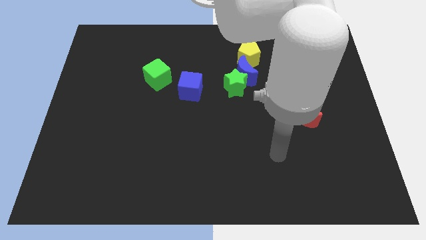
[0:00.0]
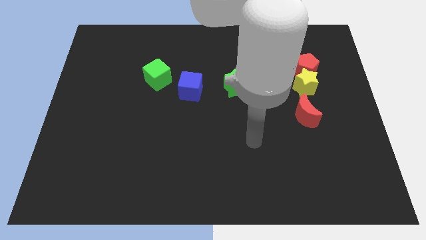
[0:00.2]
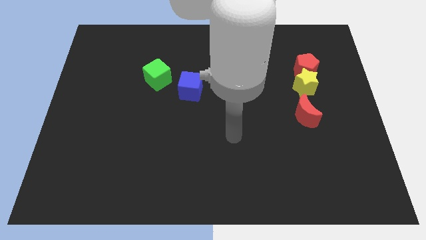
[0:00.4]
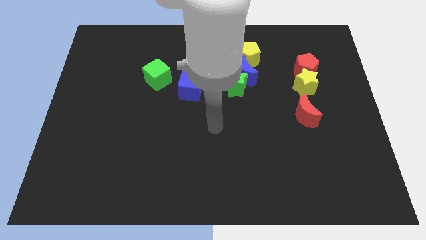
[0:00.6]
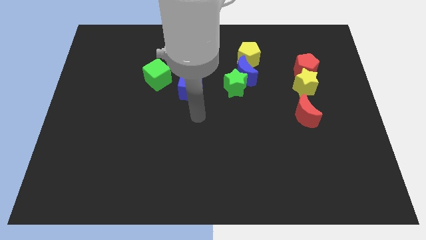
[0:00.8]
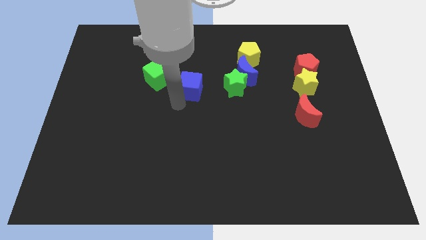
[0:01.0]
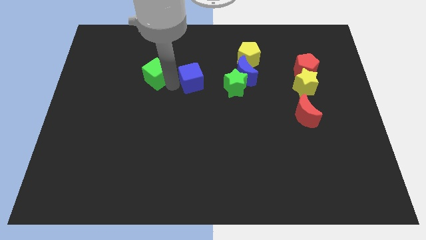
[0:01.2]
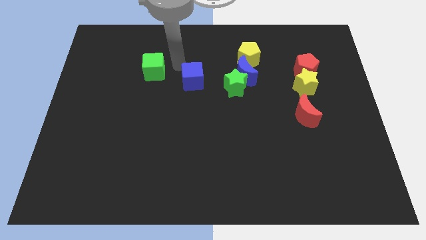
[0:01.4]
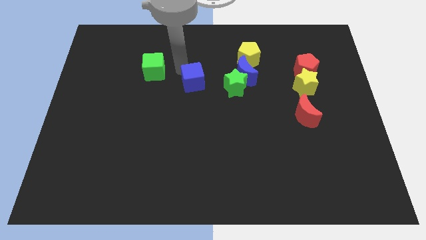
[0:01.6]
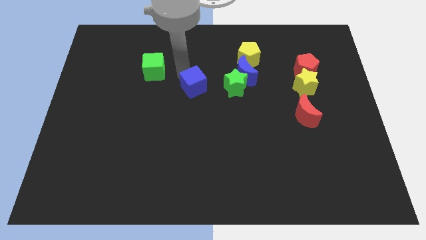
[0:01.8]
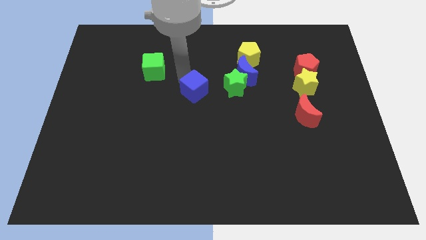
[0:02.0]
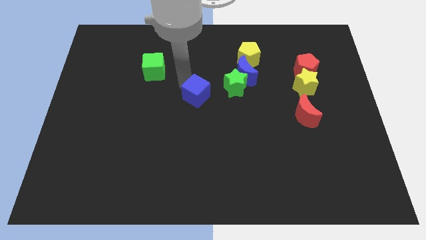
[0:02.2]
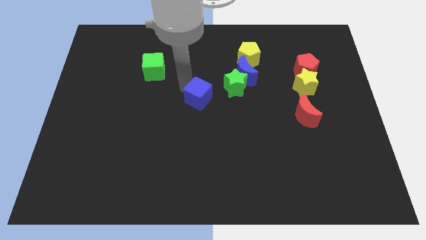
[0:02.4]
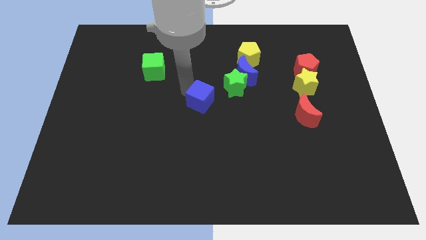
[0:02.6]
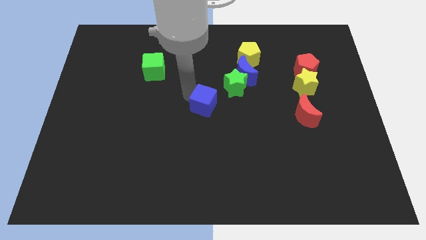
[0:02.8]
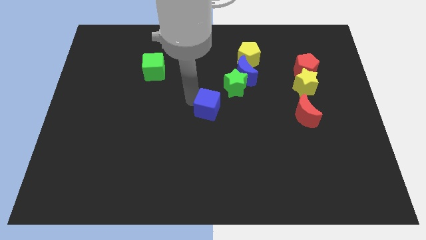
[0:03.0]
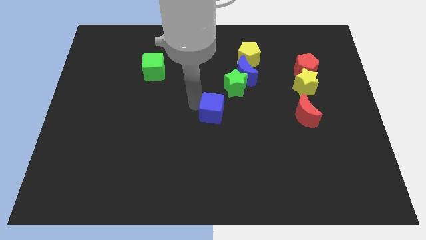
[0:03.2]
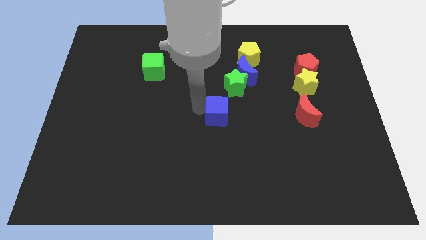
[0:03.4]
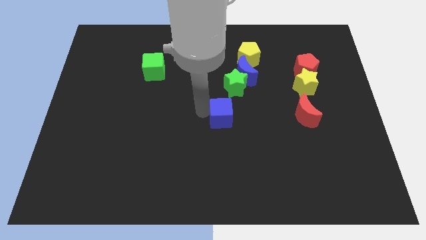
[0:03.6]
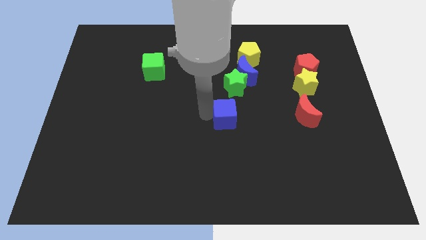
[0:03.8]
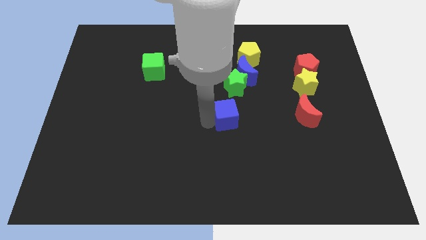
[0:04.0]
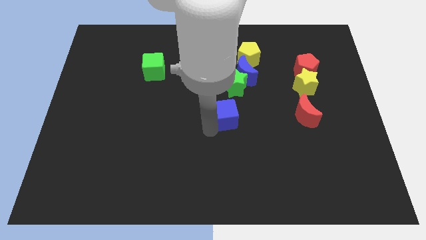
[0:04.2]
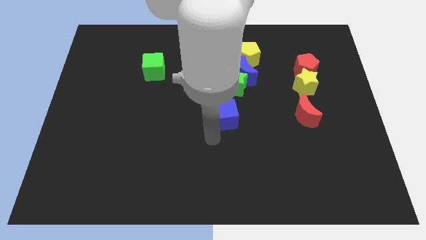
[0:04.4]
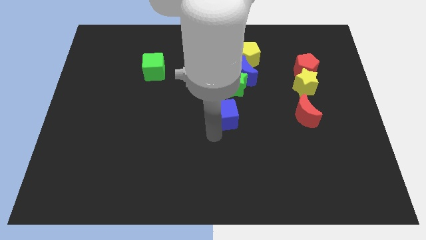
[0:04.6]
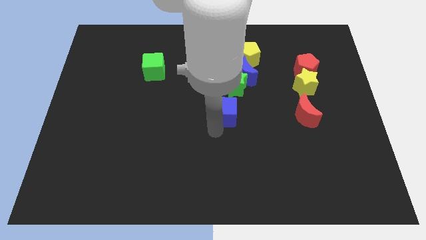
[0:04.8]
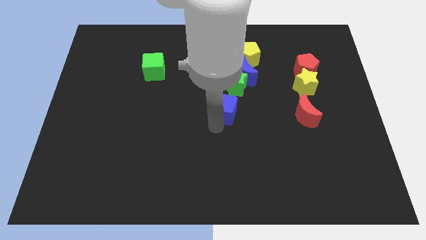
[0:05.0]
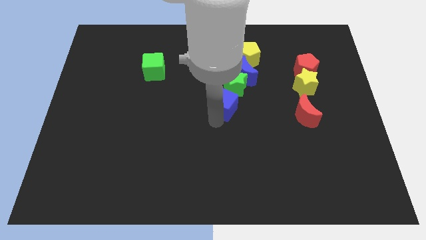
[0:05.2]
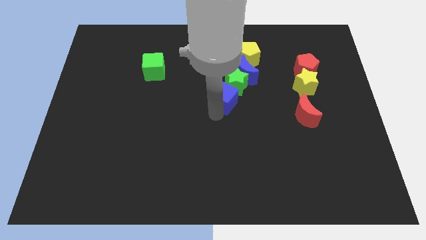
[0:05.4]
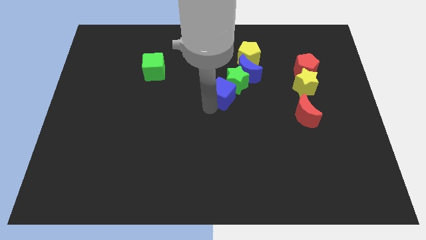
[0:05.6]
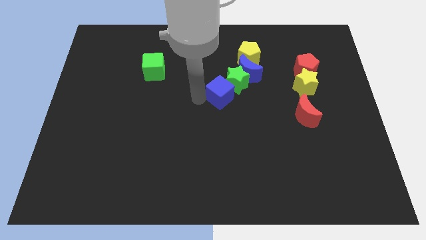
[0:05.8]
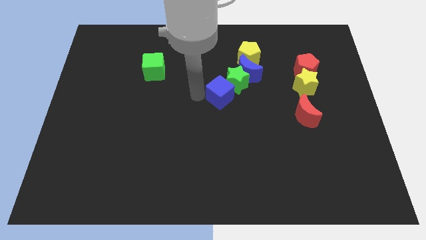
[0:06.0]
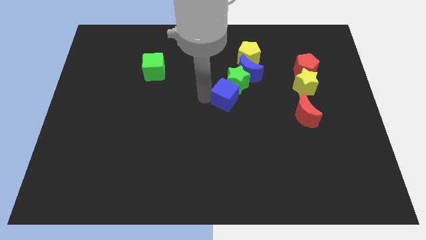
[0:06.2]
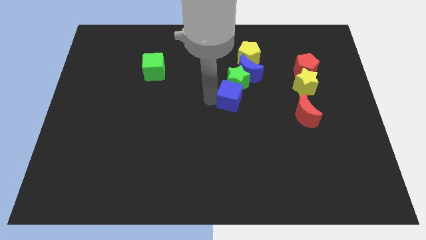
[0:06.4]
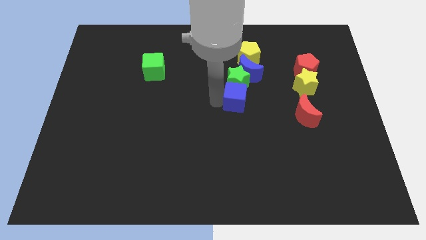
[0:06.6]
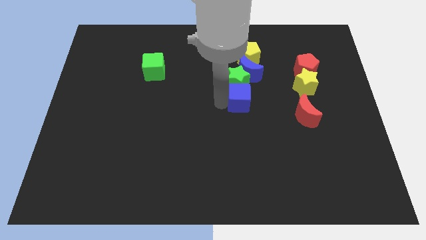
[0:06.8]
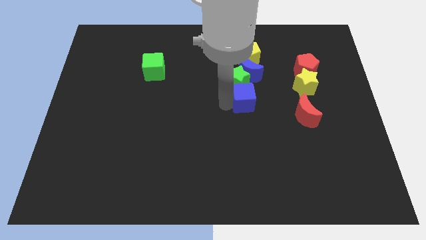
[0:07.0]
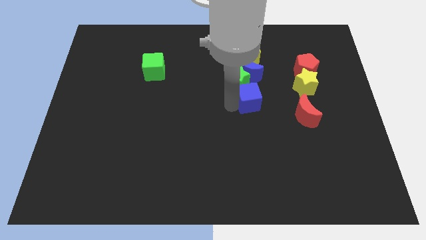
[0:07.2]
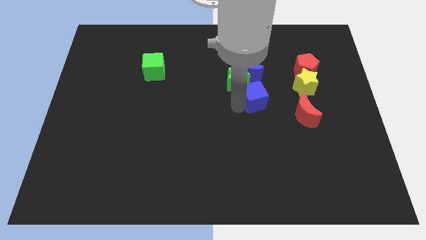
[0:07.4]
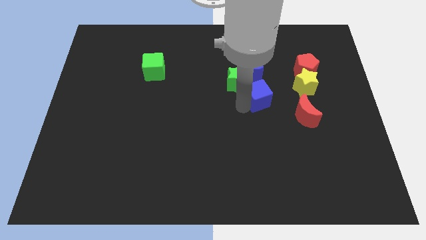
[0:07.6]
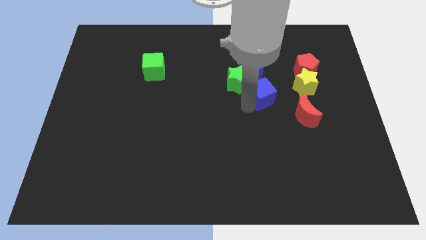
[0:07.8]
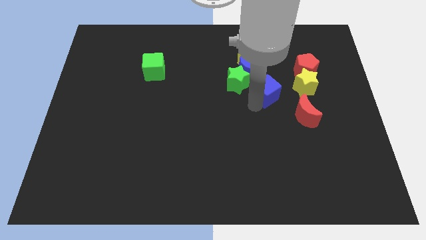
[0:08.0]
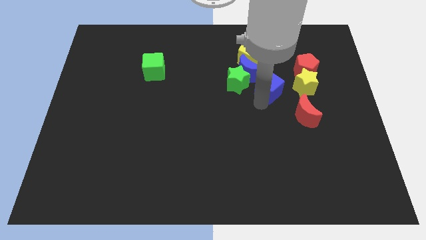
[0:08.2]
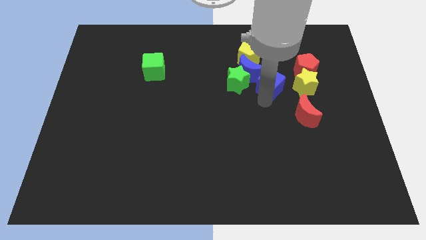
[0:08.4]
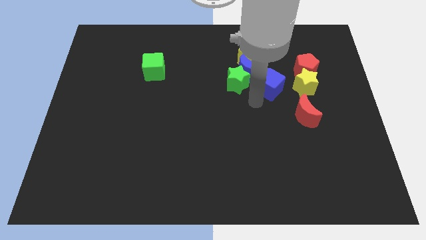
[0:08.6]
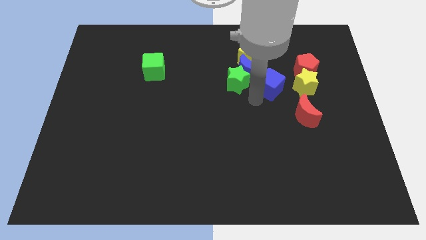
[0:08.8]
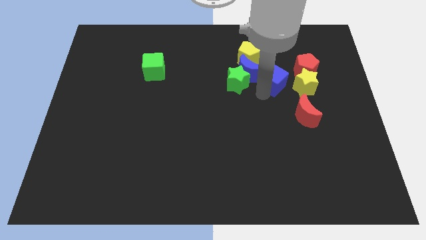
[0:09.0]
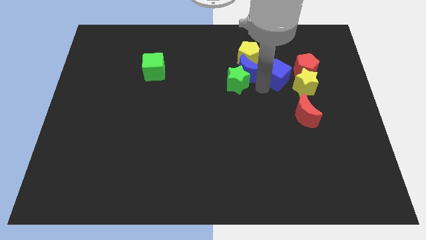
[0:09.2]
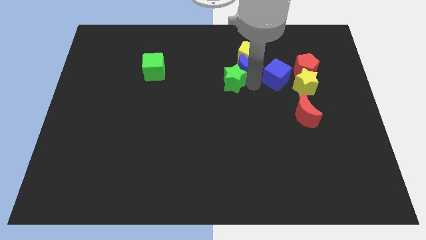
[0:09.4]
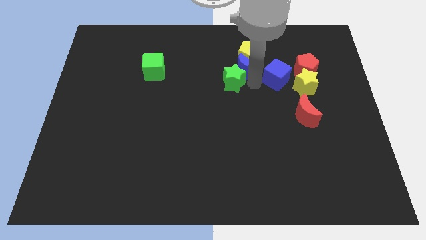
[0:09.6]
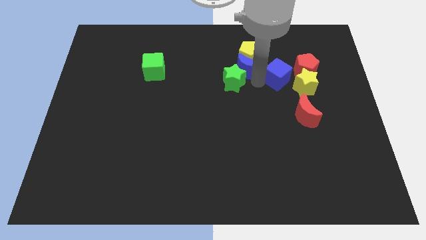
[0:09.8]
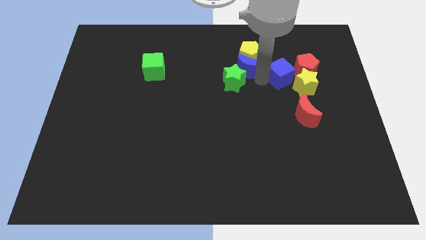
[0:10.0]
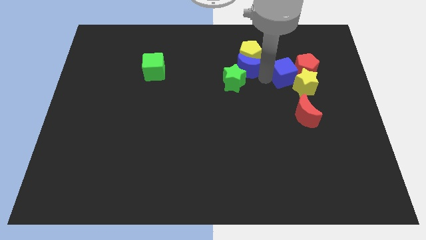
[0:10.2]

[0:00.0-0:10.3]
slide the blue cube next to the red pentagon
